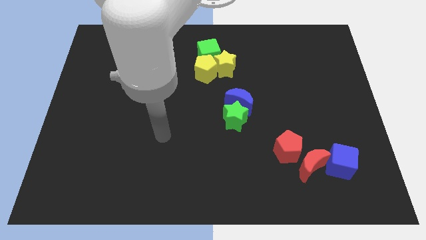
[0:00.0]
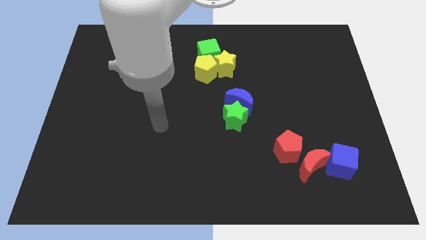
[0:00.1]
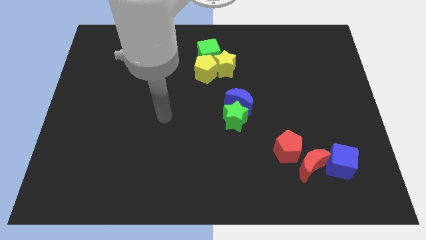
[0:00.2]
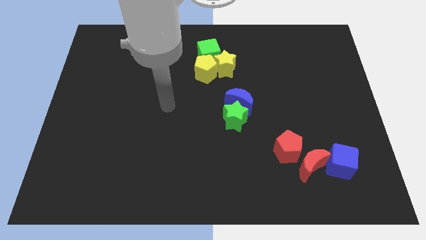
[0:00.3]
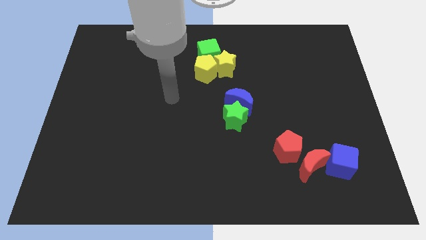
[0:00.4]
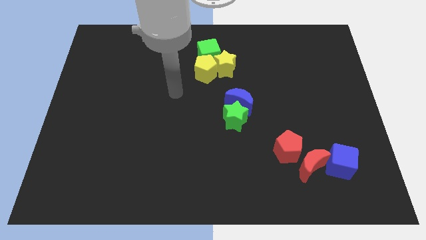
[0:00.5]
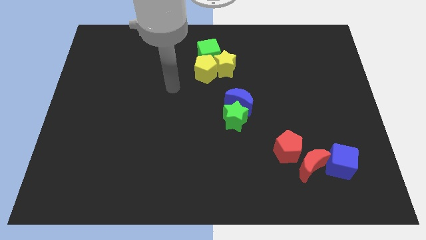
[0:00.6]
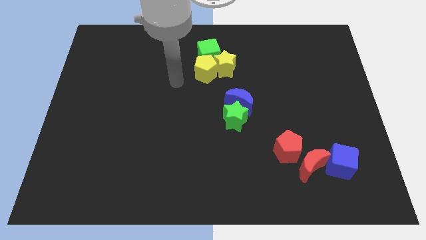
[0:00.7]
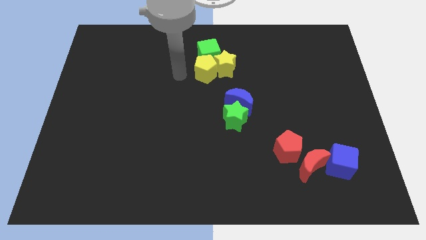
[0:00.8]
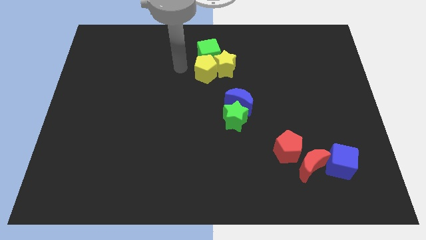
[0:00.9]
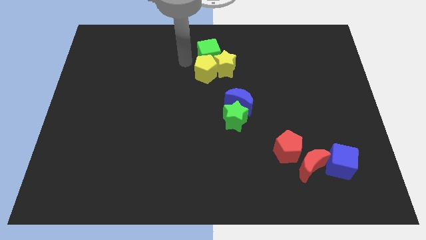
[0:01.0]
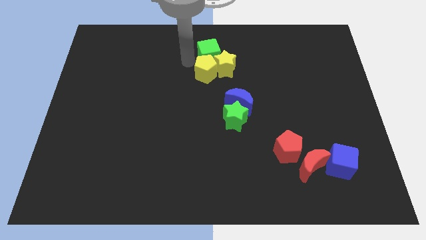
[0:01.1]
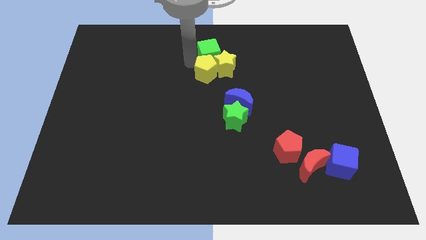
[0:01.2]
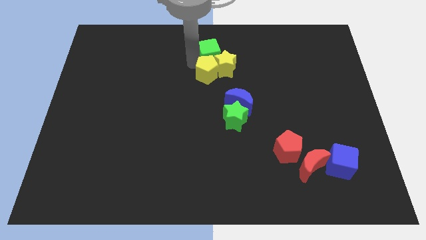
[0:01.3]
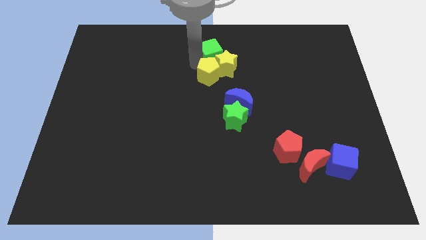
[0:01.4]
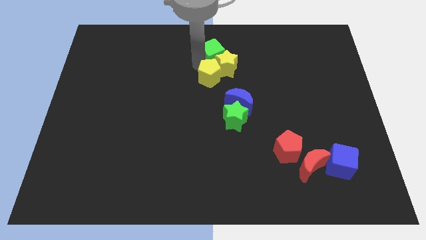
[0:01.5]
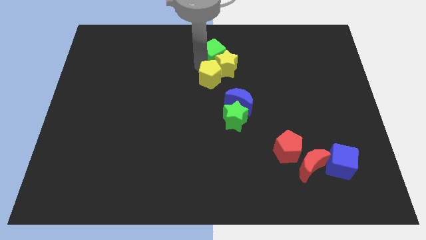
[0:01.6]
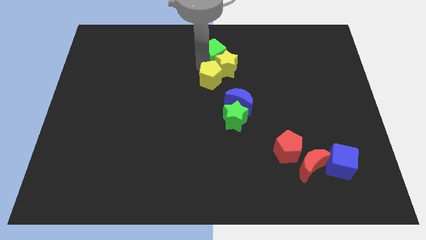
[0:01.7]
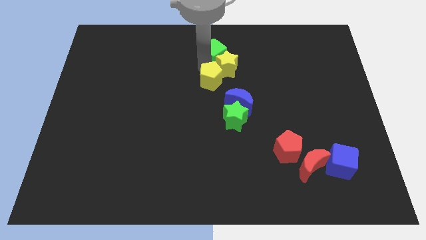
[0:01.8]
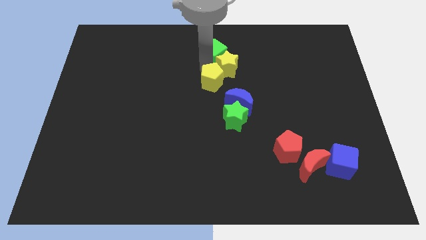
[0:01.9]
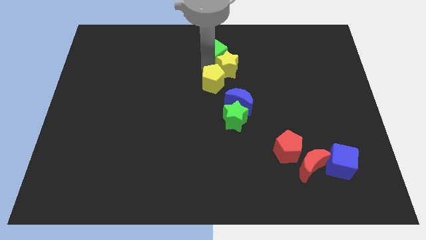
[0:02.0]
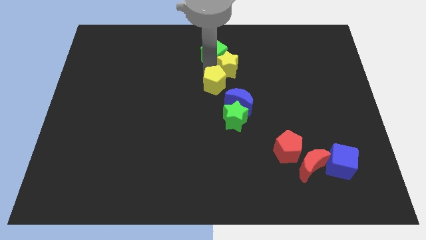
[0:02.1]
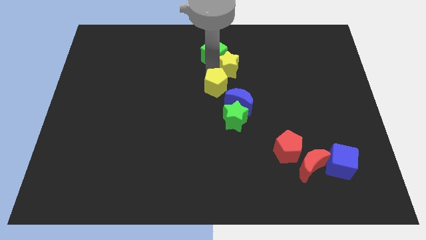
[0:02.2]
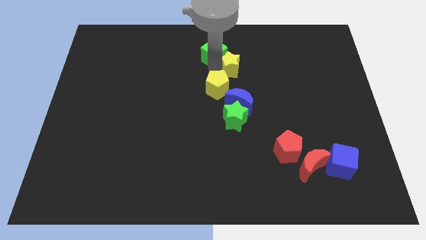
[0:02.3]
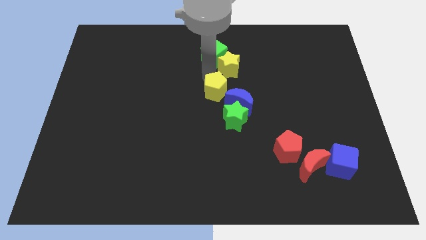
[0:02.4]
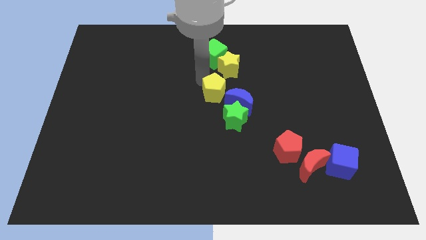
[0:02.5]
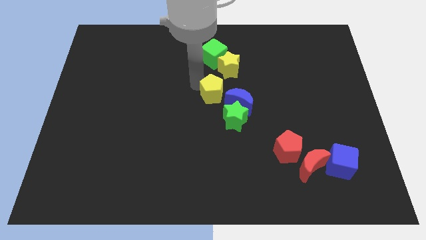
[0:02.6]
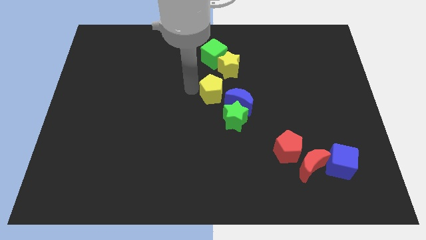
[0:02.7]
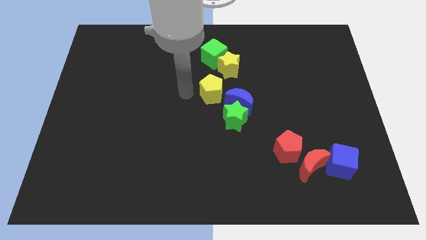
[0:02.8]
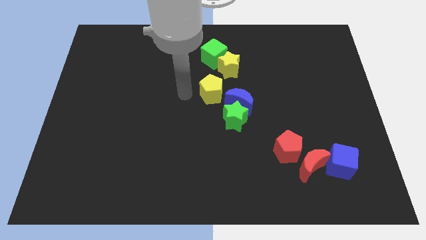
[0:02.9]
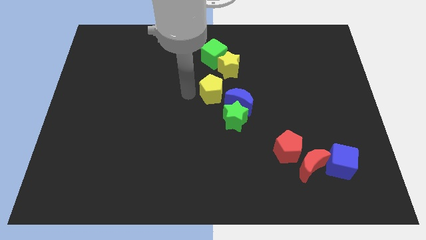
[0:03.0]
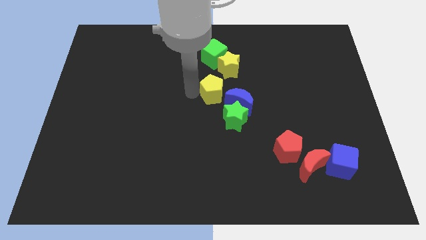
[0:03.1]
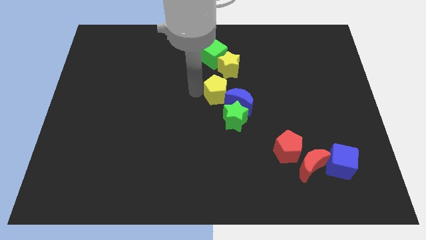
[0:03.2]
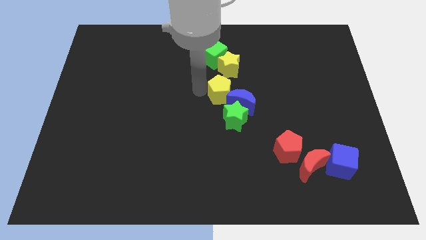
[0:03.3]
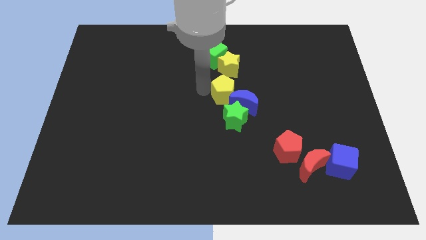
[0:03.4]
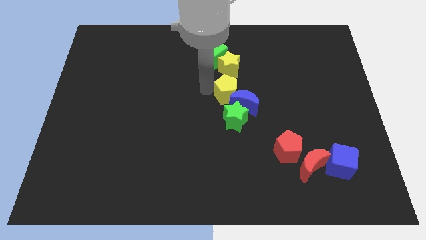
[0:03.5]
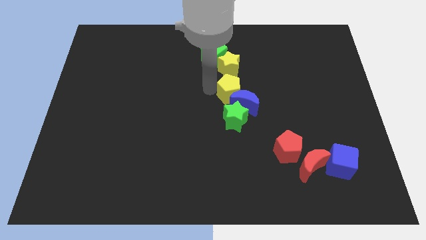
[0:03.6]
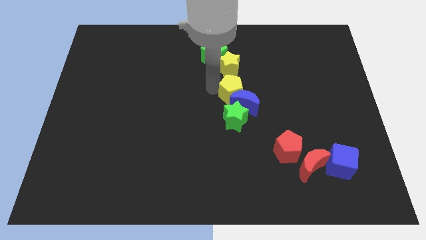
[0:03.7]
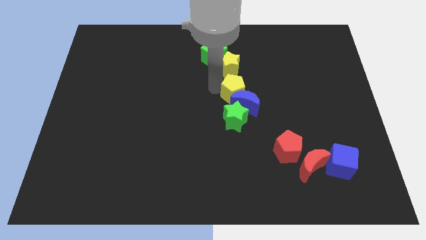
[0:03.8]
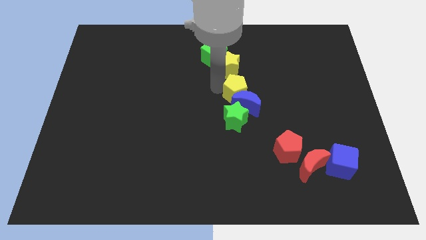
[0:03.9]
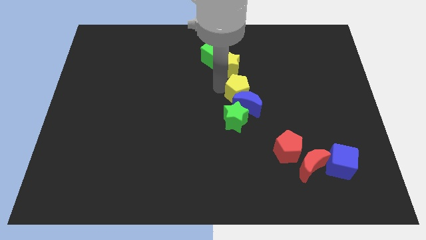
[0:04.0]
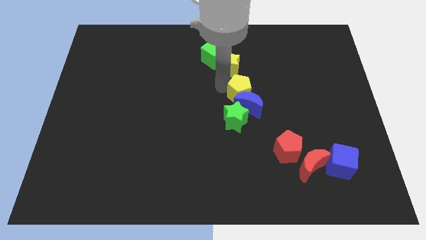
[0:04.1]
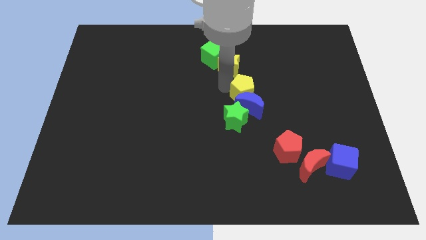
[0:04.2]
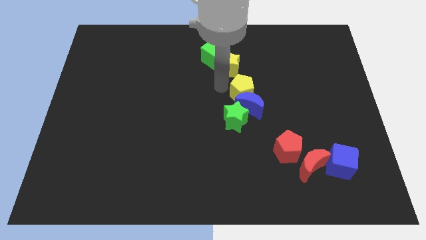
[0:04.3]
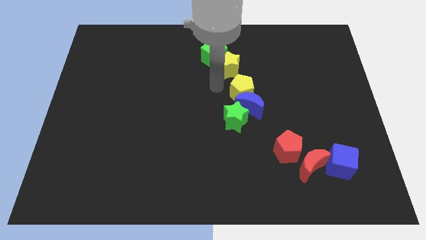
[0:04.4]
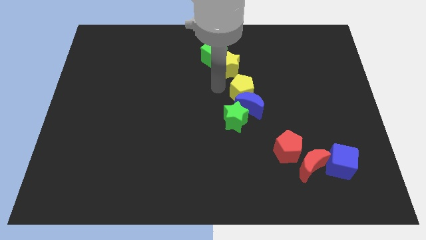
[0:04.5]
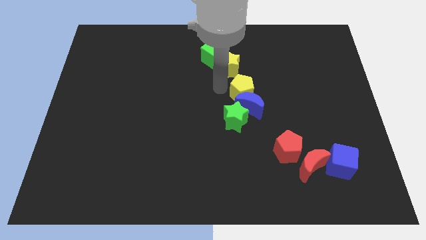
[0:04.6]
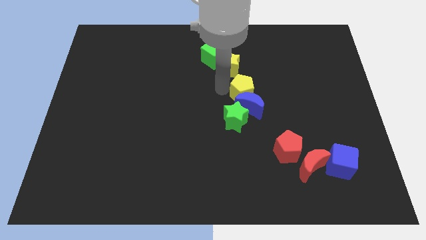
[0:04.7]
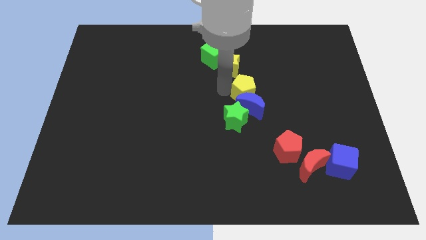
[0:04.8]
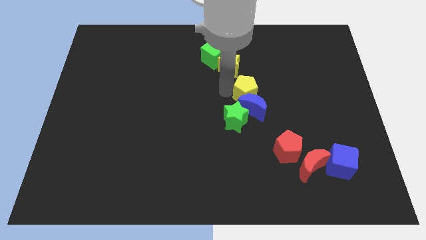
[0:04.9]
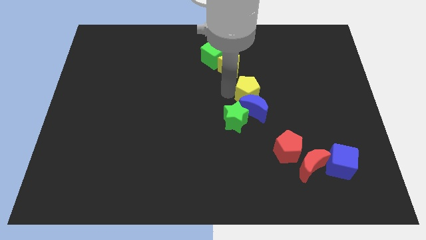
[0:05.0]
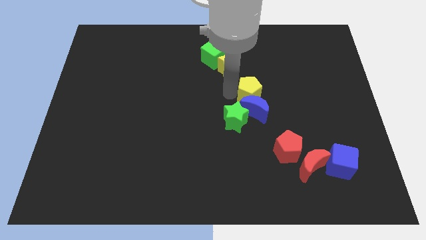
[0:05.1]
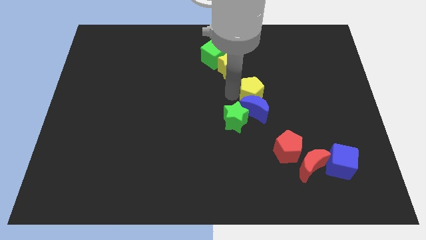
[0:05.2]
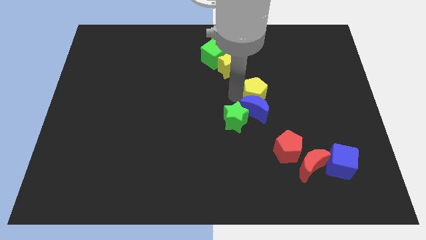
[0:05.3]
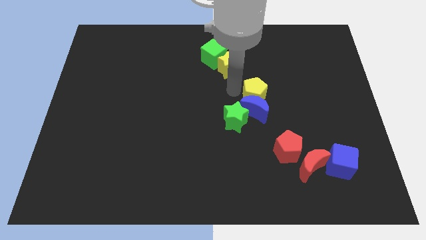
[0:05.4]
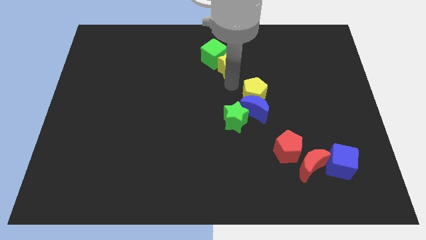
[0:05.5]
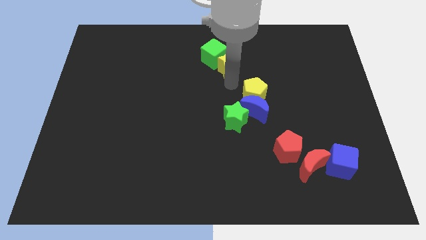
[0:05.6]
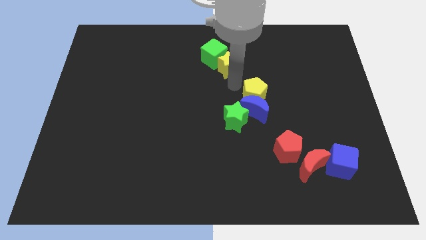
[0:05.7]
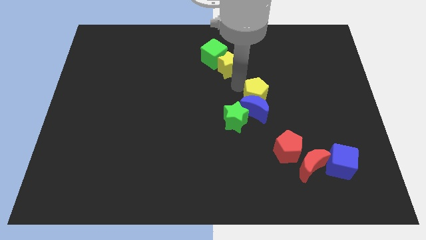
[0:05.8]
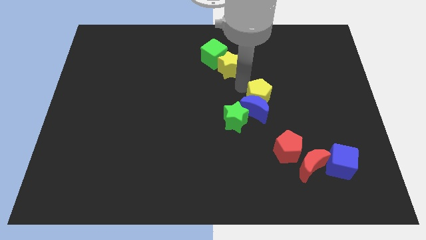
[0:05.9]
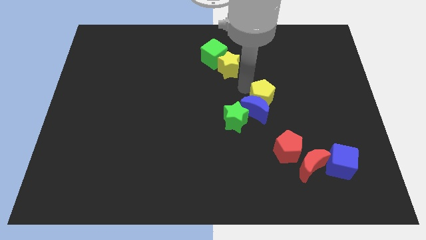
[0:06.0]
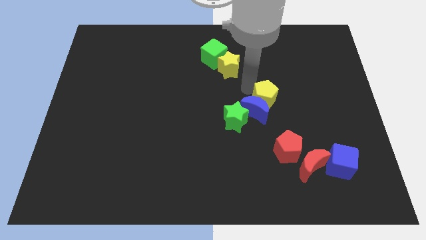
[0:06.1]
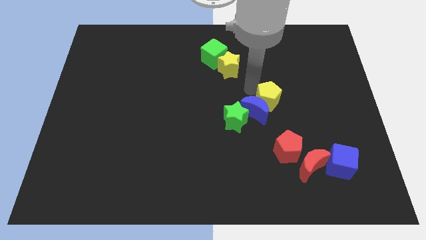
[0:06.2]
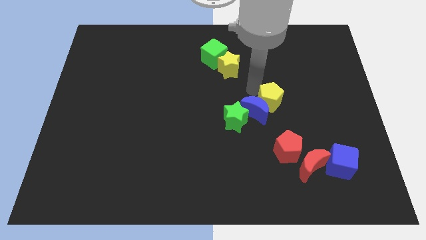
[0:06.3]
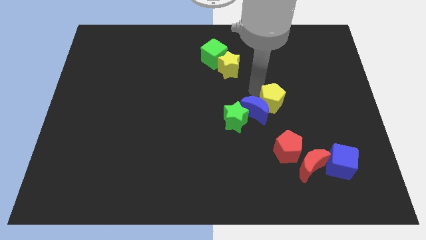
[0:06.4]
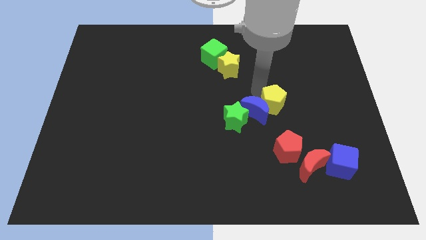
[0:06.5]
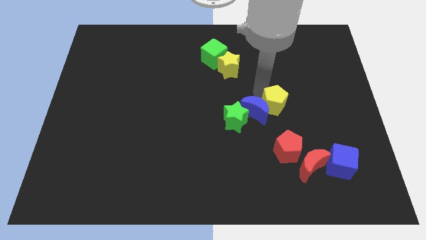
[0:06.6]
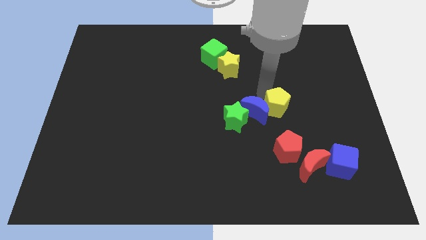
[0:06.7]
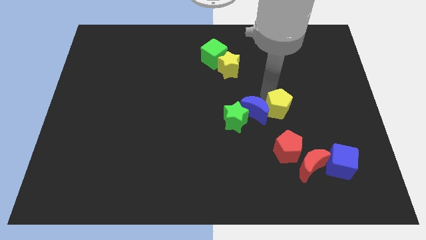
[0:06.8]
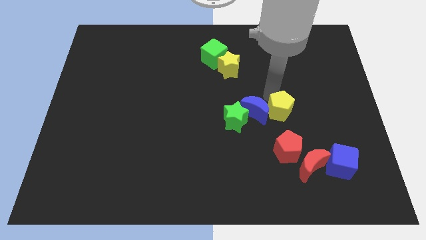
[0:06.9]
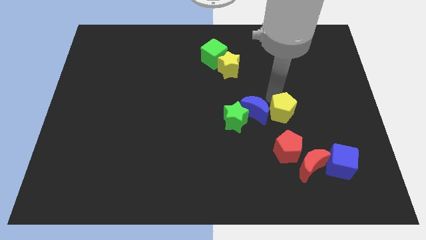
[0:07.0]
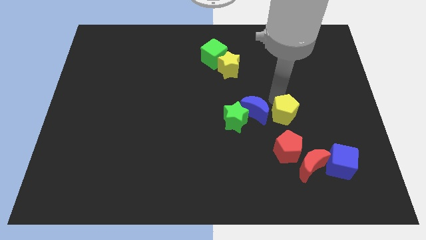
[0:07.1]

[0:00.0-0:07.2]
slide the yellow pentagon above the red moon

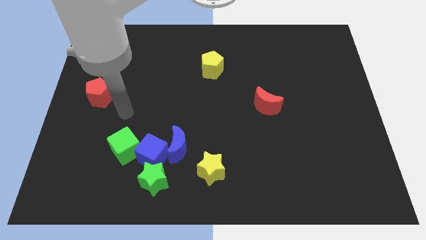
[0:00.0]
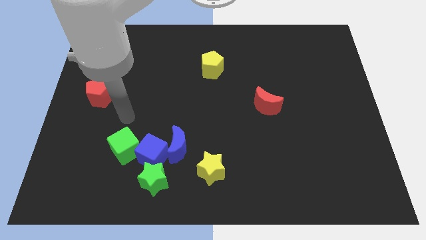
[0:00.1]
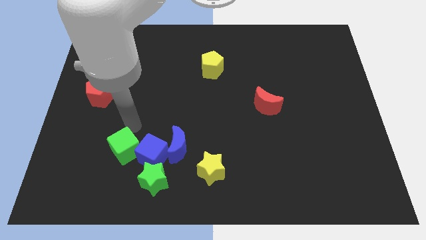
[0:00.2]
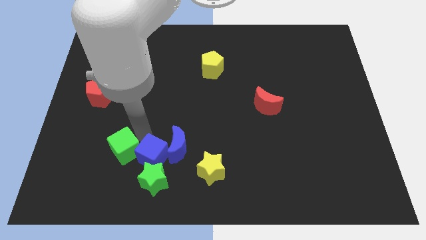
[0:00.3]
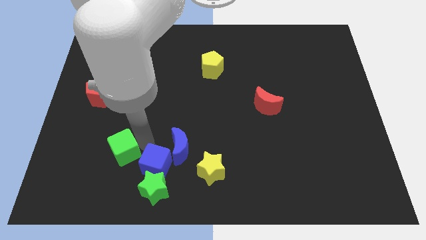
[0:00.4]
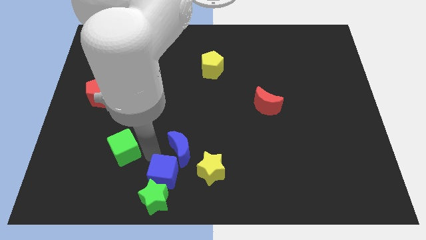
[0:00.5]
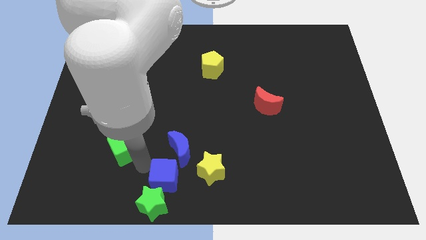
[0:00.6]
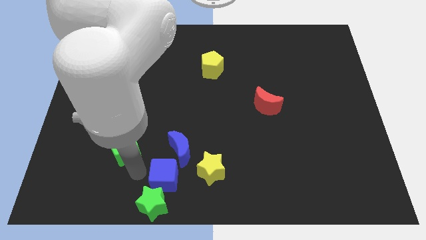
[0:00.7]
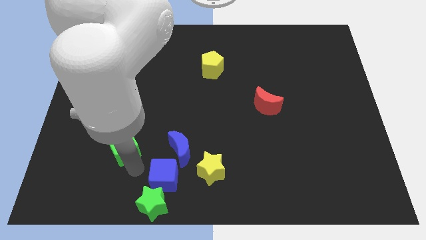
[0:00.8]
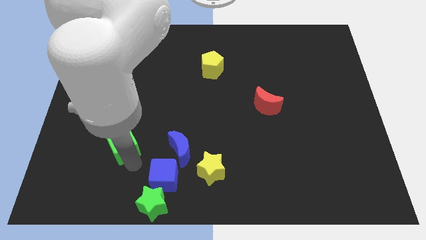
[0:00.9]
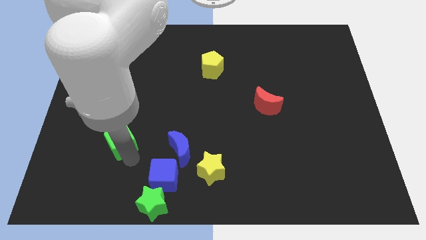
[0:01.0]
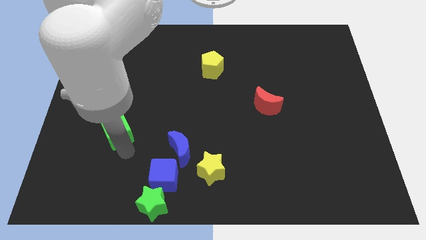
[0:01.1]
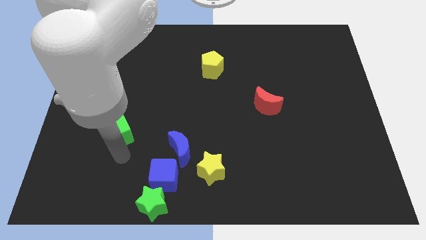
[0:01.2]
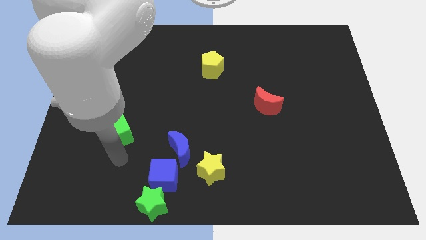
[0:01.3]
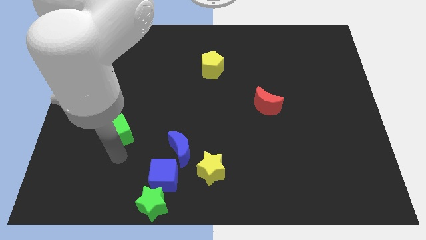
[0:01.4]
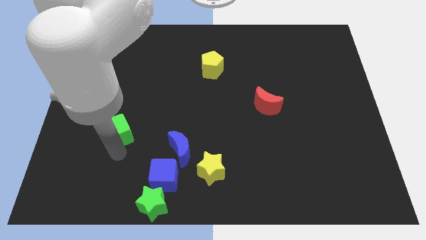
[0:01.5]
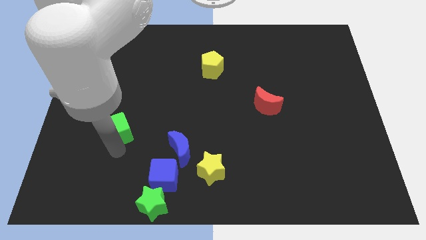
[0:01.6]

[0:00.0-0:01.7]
slide the green cube to the bottom right side of the red pentagon
